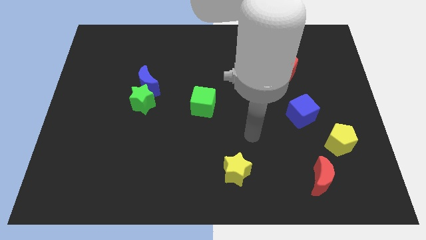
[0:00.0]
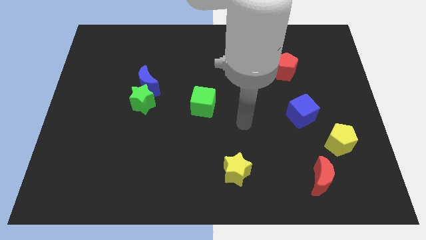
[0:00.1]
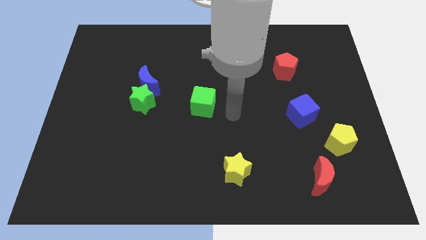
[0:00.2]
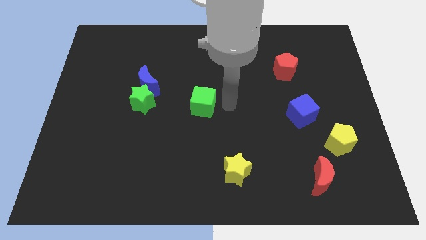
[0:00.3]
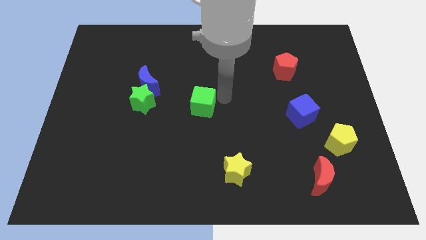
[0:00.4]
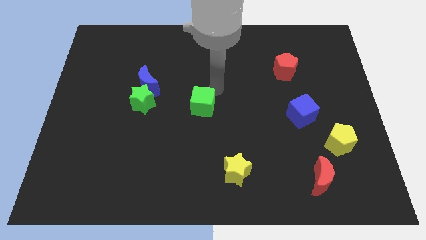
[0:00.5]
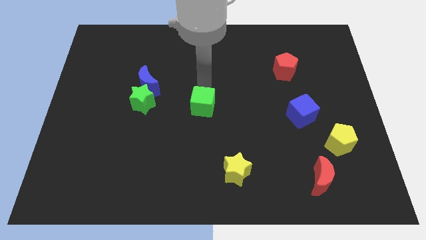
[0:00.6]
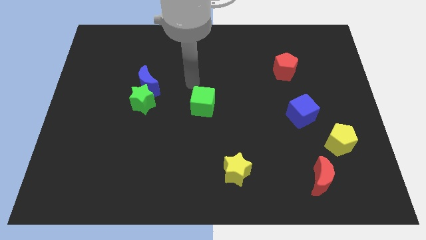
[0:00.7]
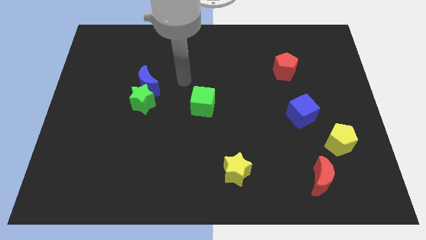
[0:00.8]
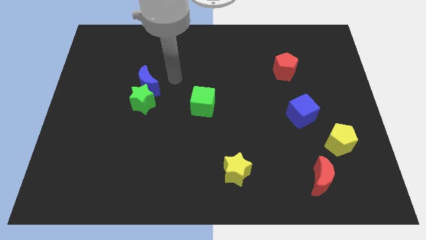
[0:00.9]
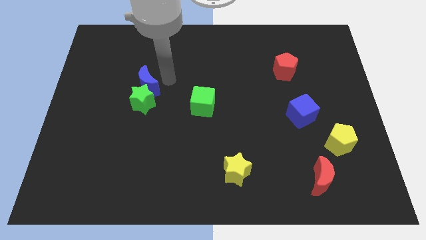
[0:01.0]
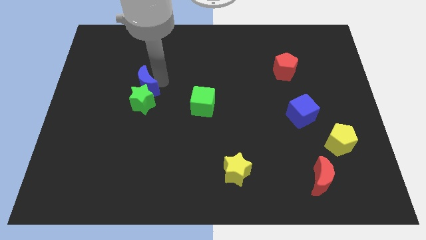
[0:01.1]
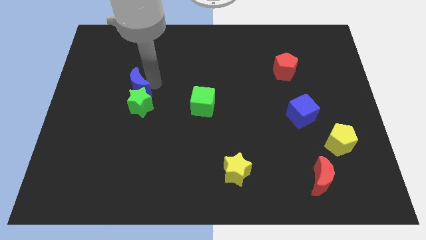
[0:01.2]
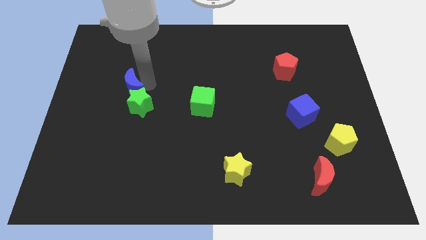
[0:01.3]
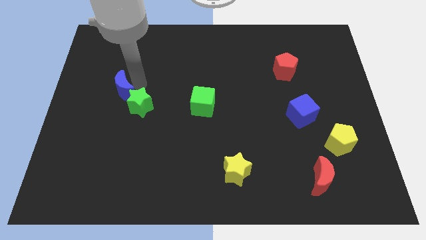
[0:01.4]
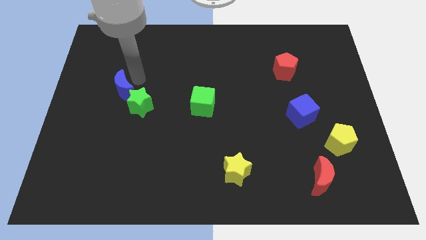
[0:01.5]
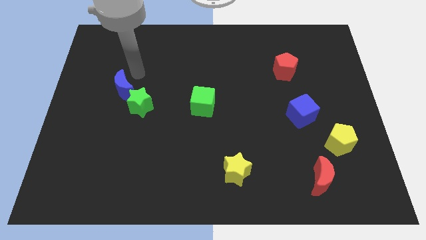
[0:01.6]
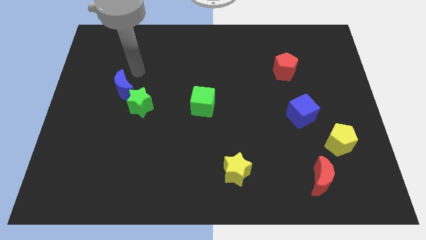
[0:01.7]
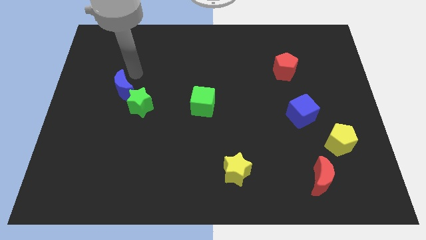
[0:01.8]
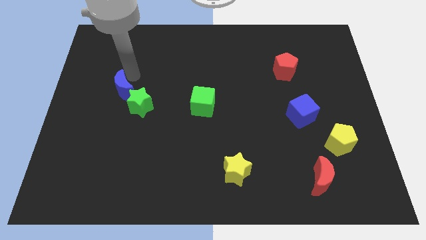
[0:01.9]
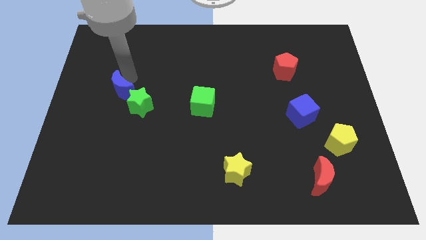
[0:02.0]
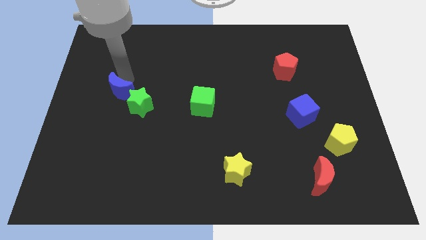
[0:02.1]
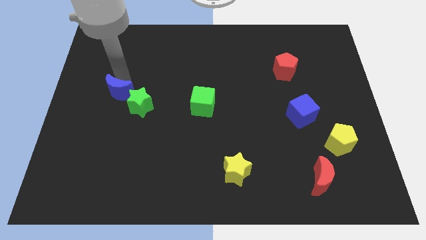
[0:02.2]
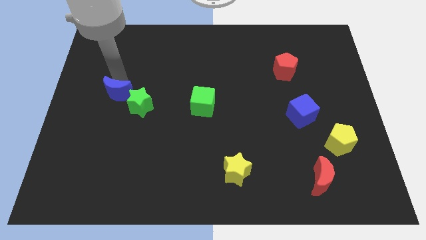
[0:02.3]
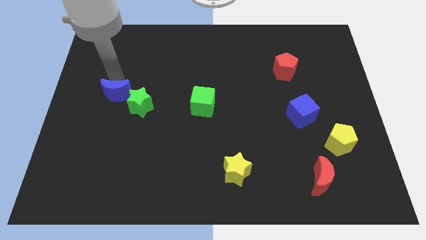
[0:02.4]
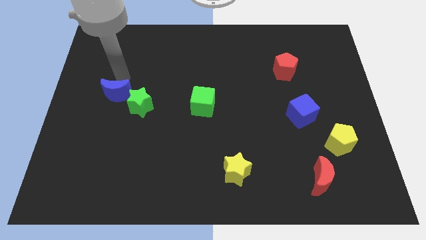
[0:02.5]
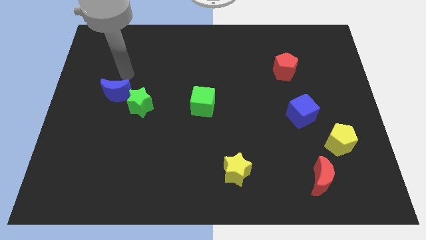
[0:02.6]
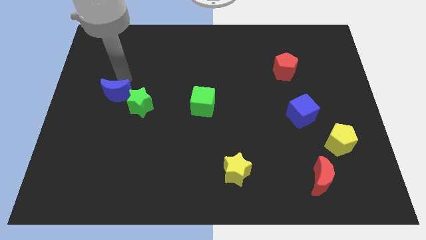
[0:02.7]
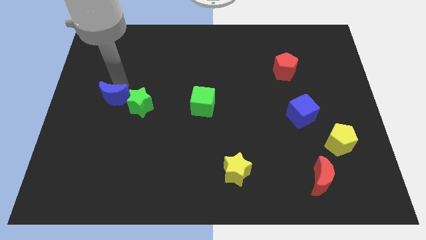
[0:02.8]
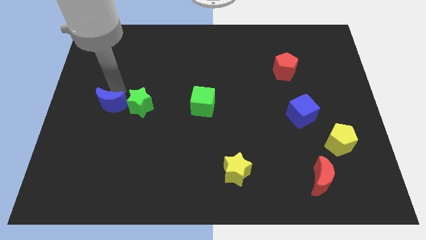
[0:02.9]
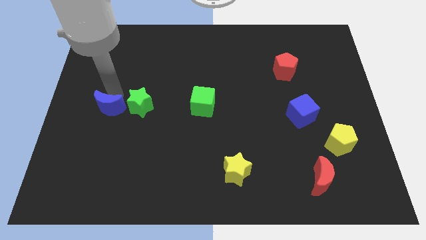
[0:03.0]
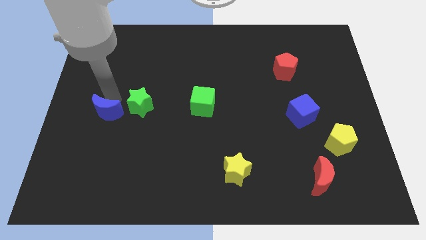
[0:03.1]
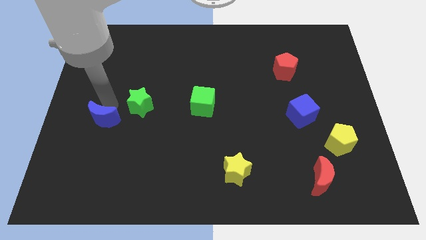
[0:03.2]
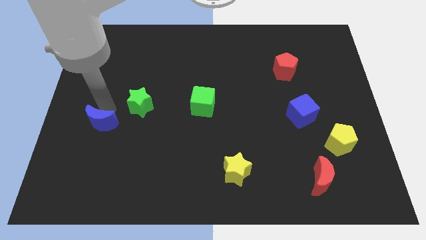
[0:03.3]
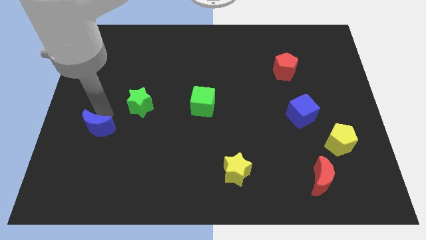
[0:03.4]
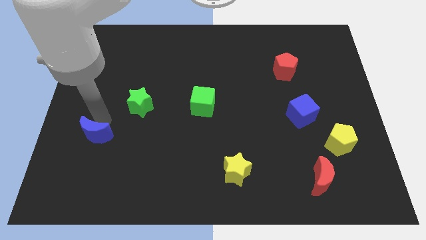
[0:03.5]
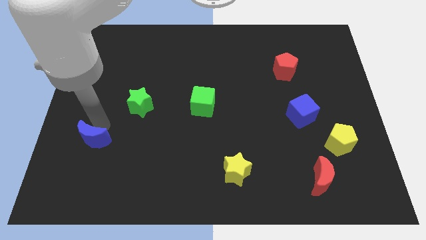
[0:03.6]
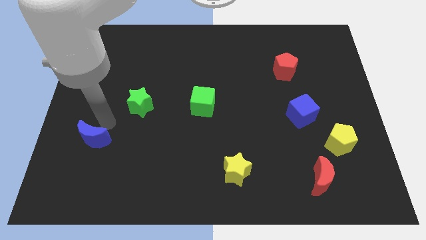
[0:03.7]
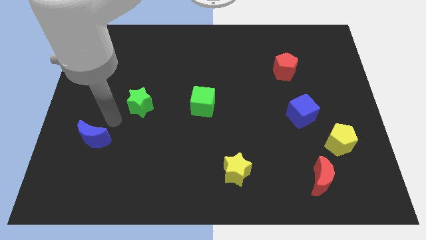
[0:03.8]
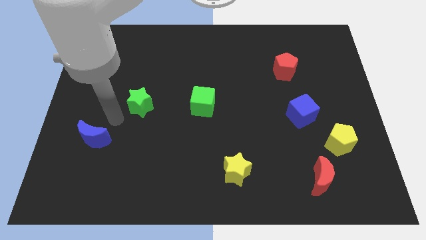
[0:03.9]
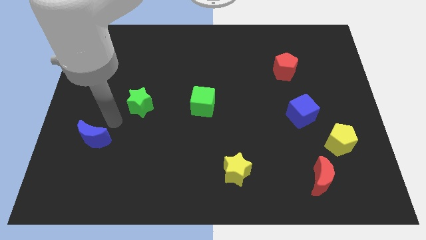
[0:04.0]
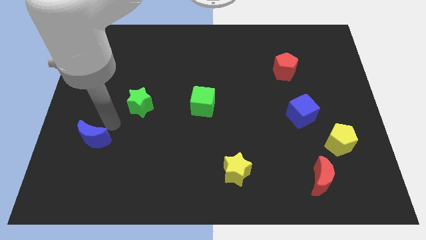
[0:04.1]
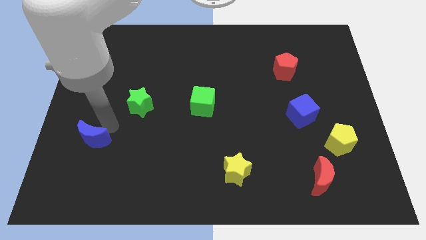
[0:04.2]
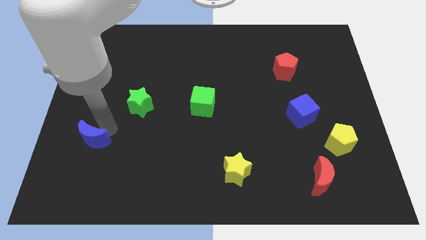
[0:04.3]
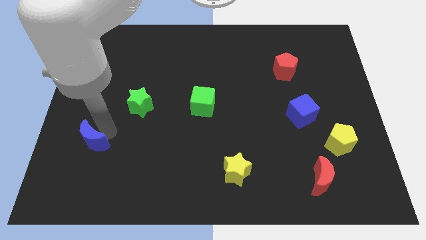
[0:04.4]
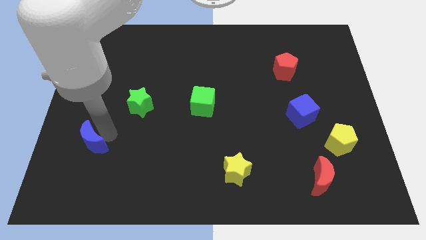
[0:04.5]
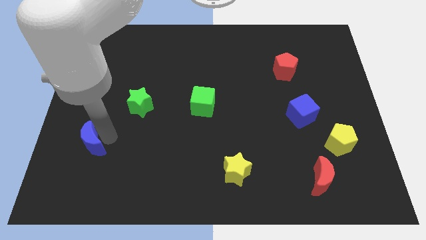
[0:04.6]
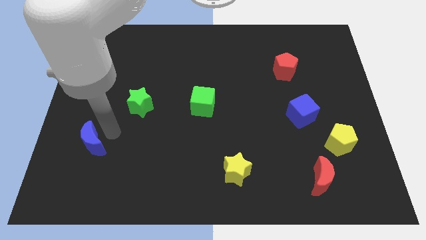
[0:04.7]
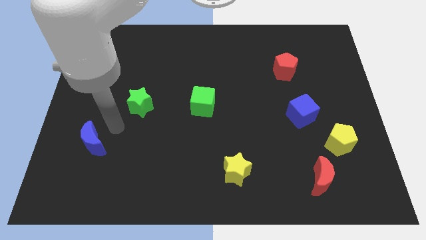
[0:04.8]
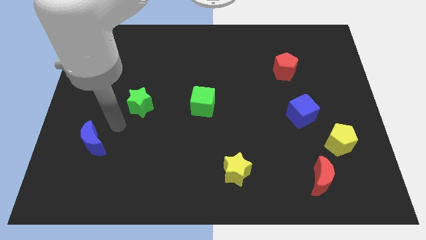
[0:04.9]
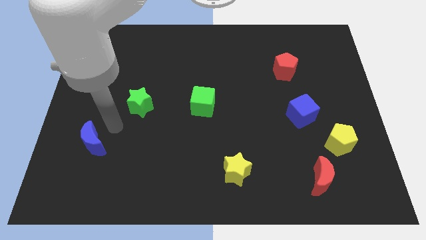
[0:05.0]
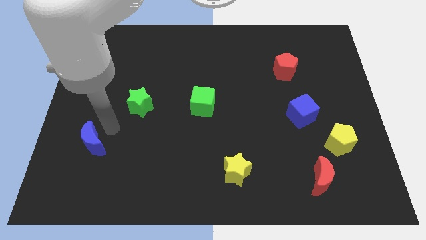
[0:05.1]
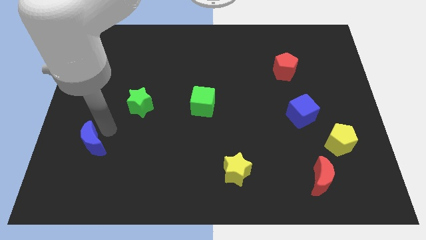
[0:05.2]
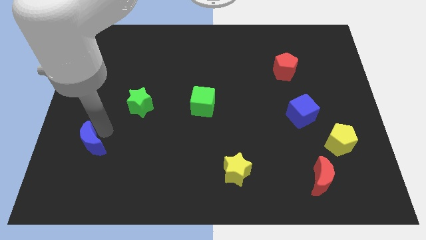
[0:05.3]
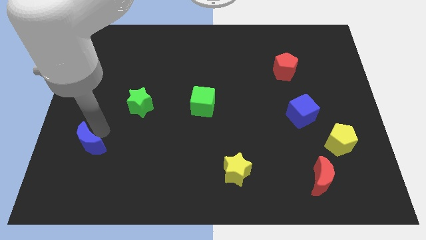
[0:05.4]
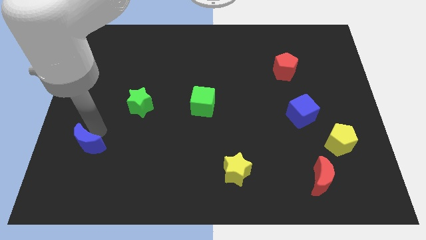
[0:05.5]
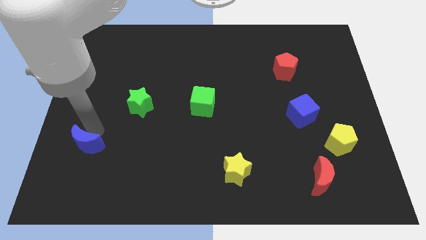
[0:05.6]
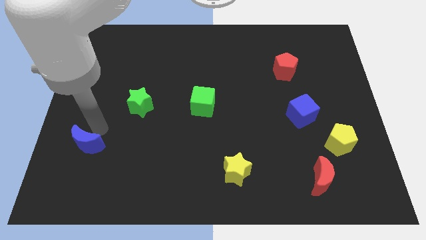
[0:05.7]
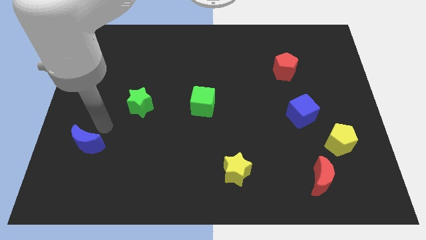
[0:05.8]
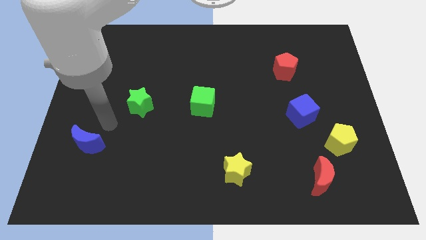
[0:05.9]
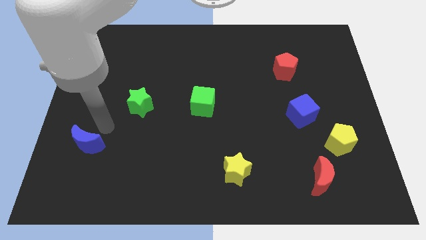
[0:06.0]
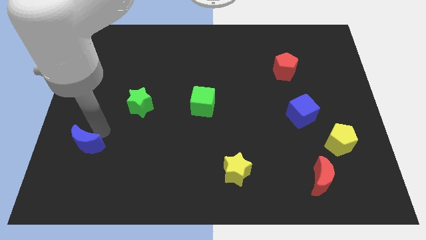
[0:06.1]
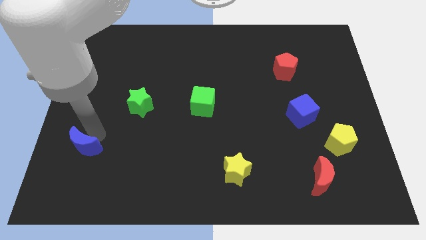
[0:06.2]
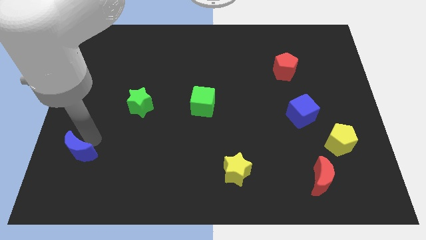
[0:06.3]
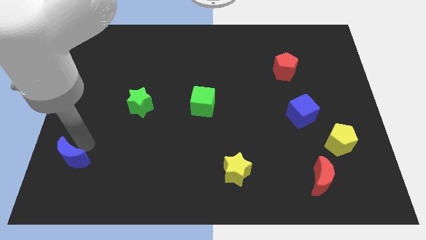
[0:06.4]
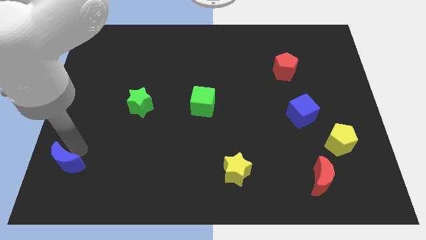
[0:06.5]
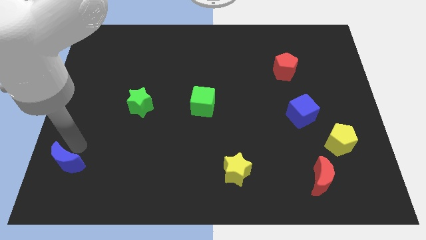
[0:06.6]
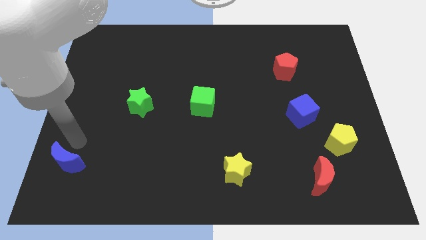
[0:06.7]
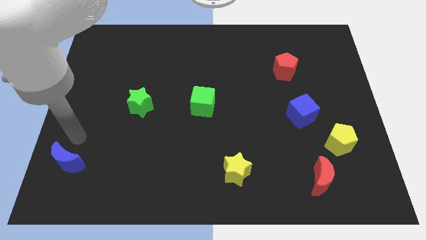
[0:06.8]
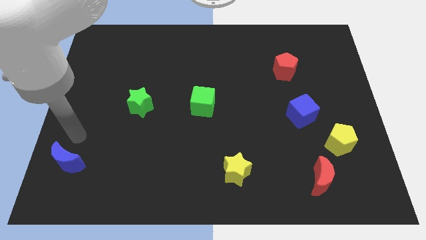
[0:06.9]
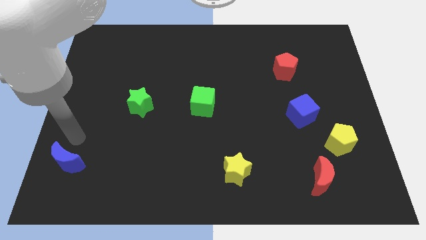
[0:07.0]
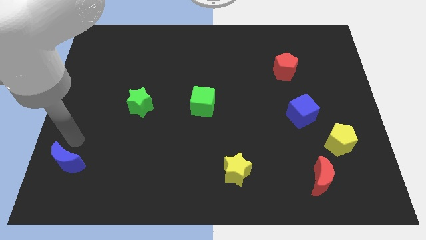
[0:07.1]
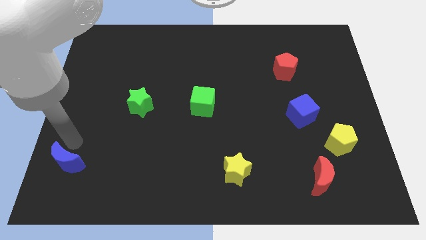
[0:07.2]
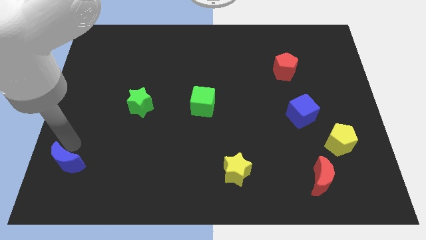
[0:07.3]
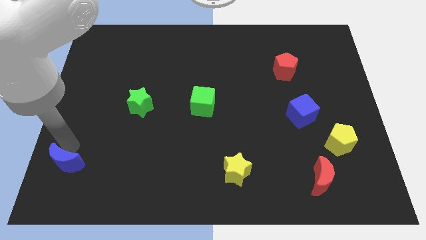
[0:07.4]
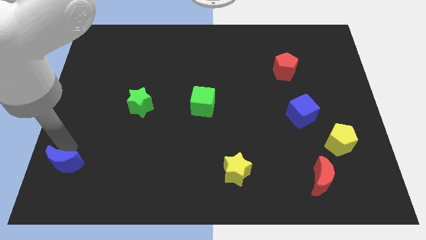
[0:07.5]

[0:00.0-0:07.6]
push the blue moon to the bottom left
